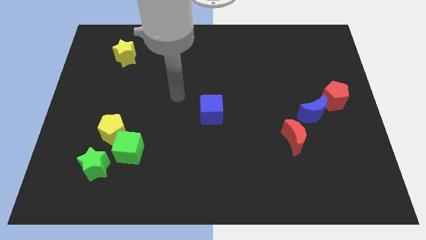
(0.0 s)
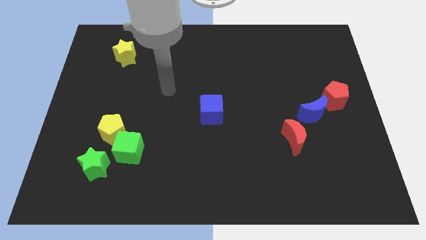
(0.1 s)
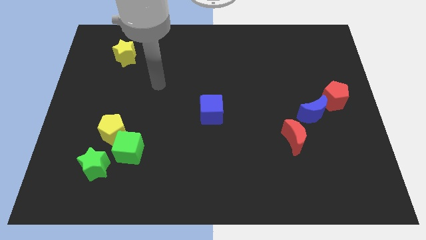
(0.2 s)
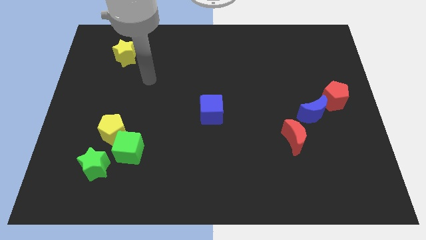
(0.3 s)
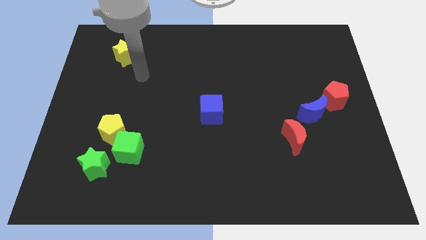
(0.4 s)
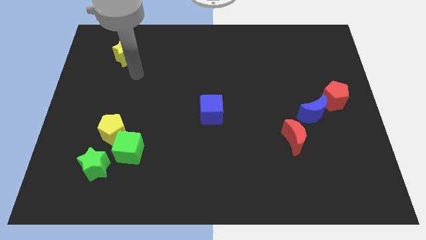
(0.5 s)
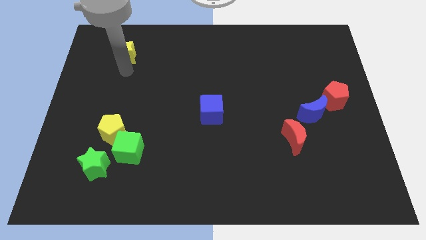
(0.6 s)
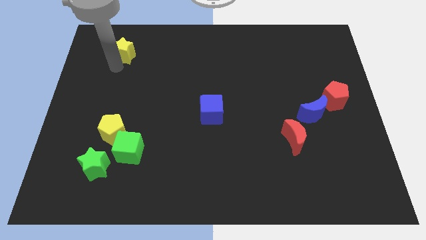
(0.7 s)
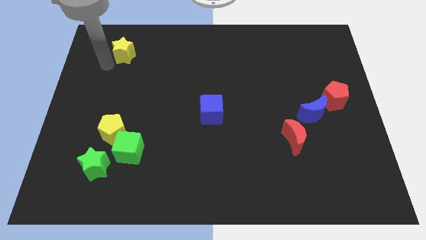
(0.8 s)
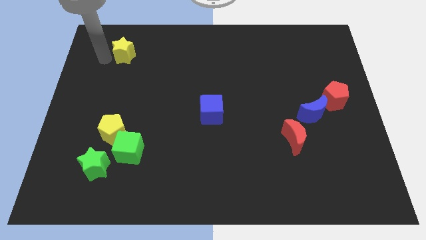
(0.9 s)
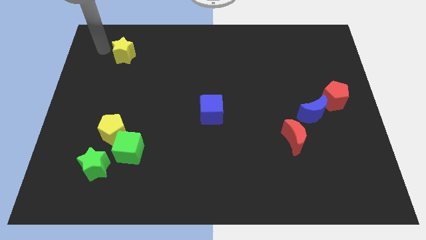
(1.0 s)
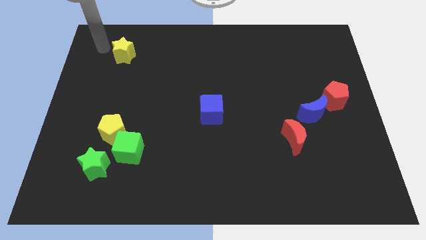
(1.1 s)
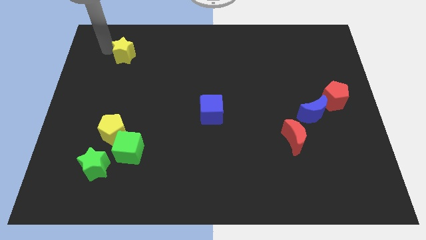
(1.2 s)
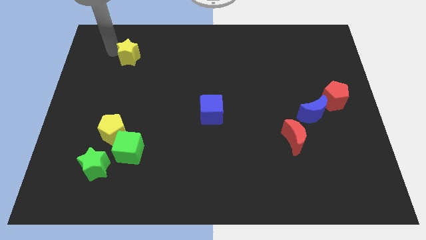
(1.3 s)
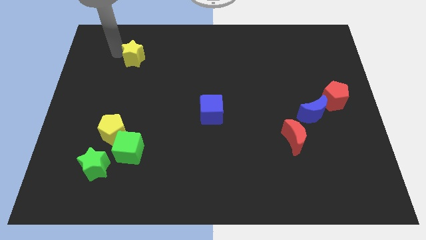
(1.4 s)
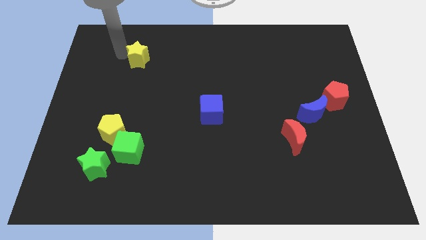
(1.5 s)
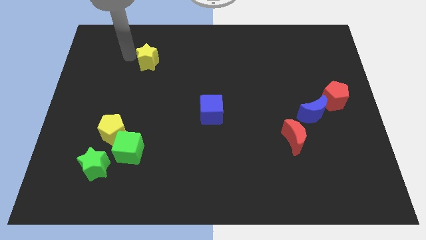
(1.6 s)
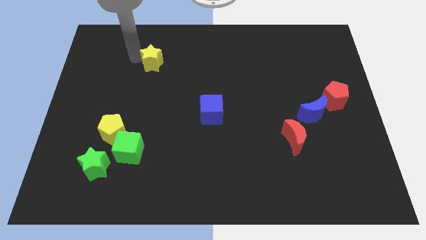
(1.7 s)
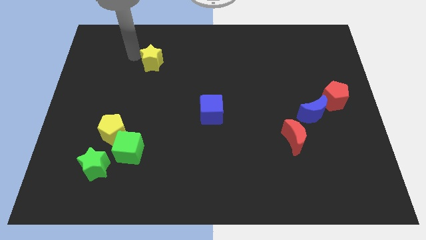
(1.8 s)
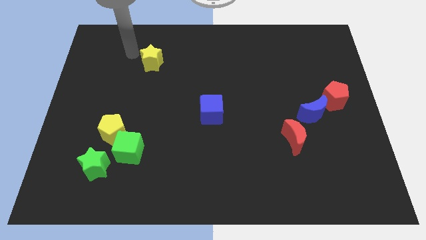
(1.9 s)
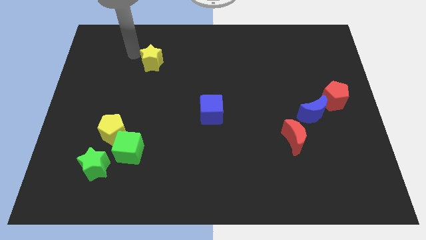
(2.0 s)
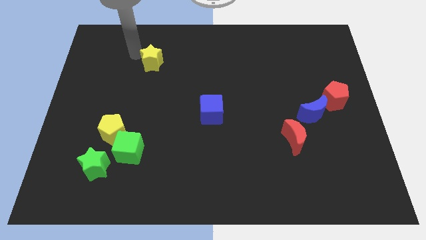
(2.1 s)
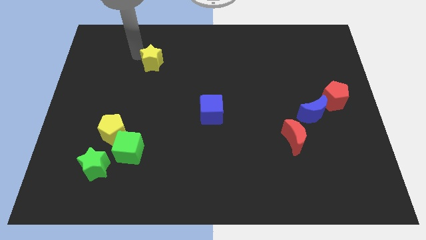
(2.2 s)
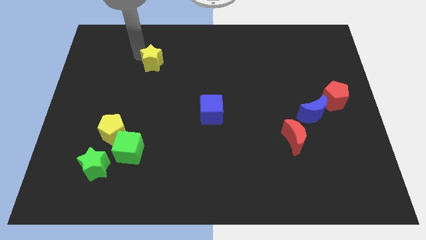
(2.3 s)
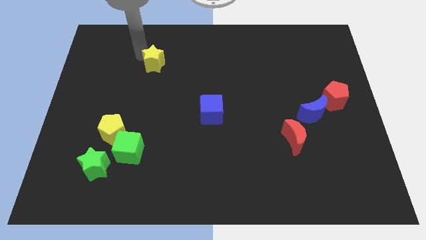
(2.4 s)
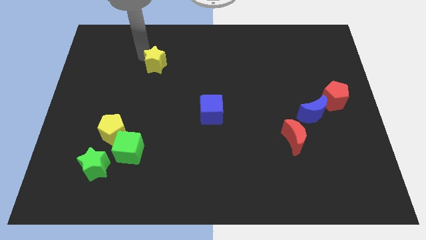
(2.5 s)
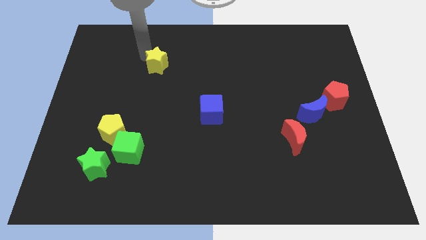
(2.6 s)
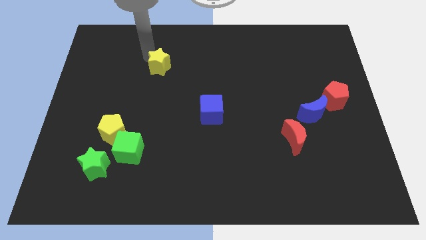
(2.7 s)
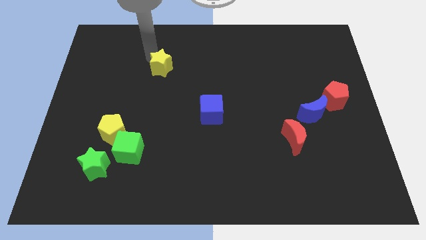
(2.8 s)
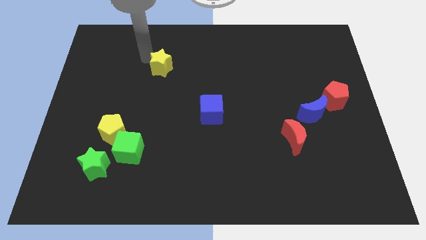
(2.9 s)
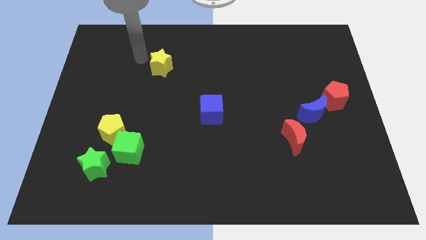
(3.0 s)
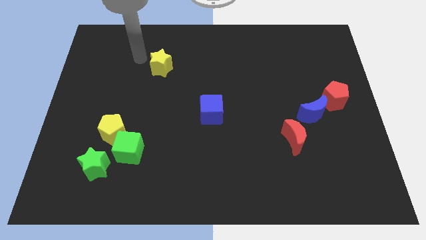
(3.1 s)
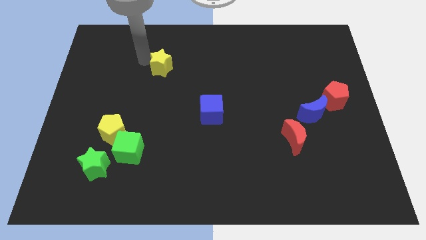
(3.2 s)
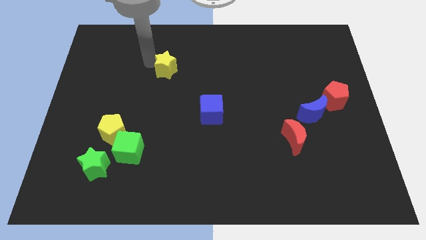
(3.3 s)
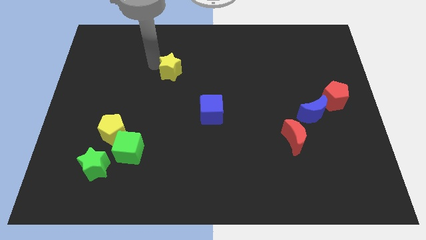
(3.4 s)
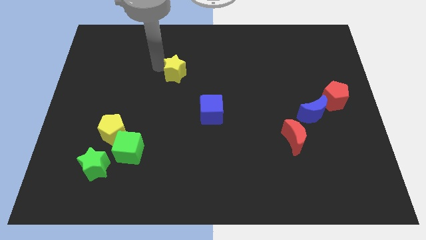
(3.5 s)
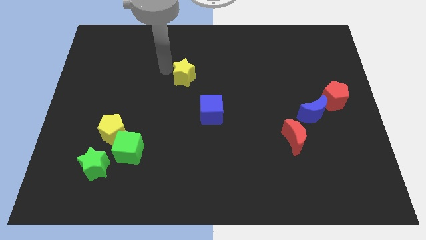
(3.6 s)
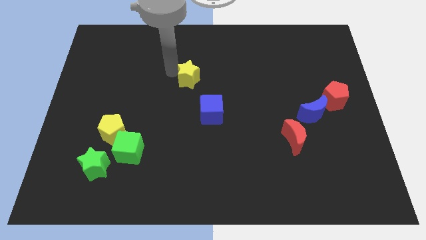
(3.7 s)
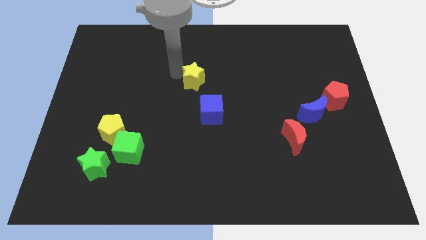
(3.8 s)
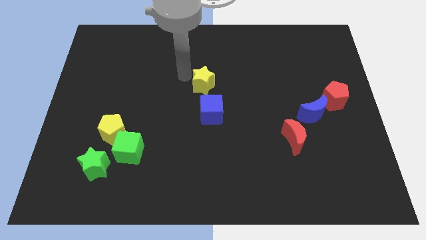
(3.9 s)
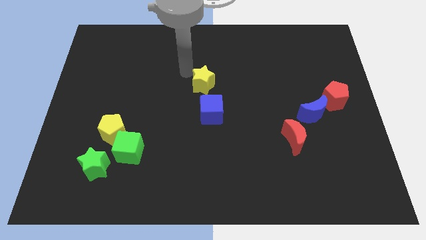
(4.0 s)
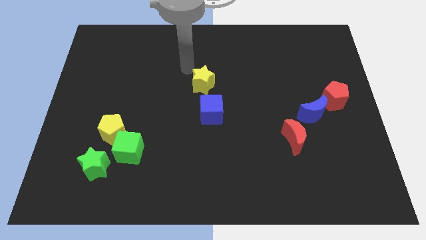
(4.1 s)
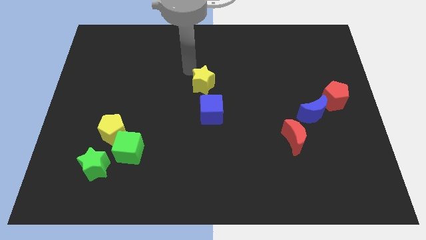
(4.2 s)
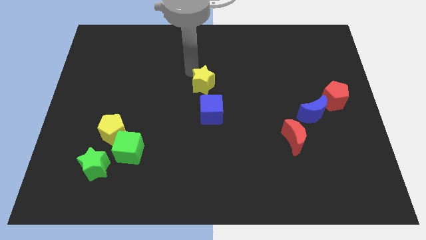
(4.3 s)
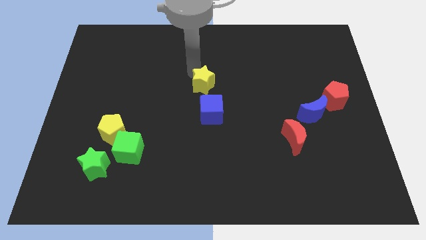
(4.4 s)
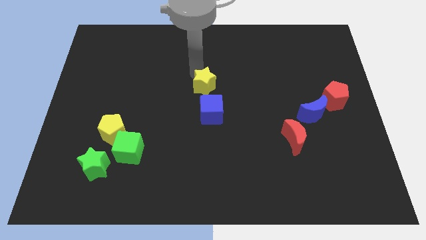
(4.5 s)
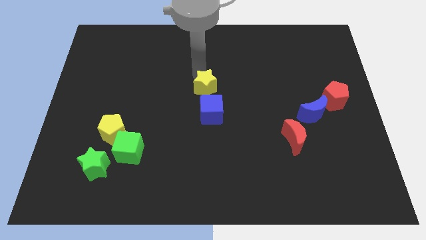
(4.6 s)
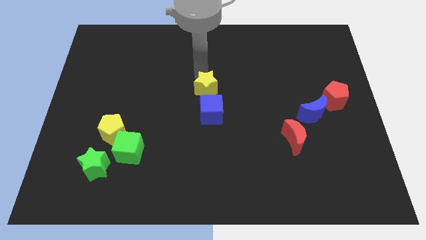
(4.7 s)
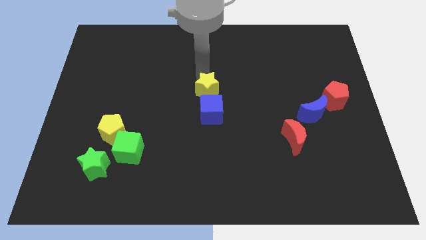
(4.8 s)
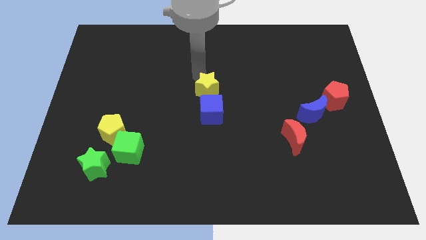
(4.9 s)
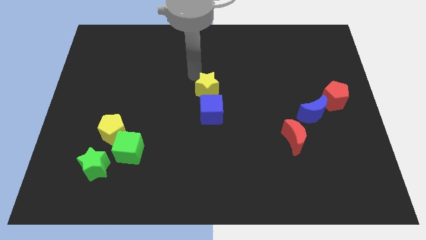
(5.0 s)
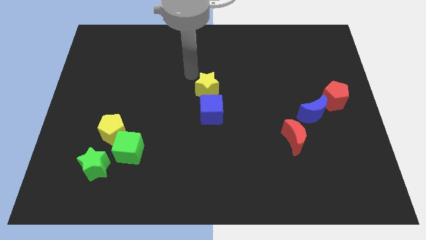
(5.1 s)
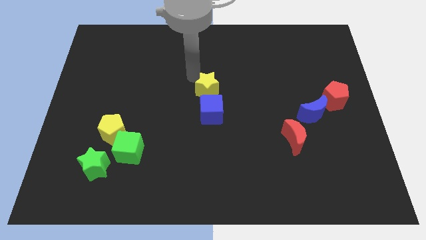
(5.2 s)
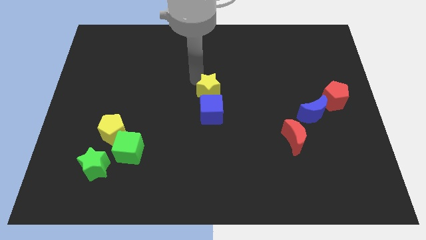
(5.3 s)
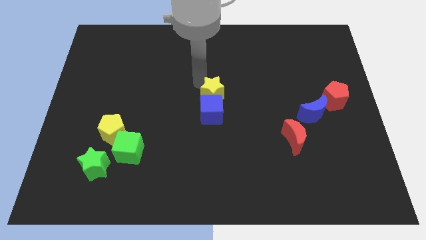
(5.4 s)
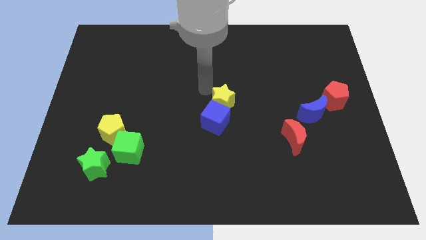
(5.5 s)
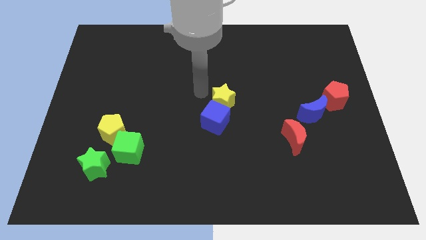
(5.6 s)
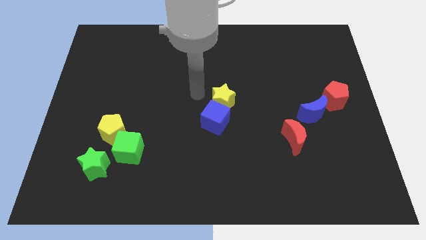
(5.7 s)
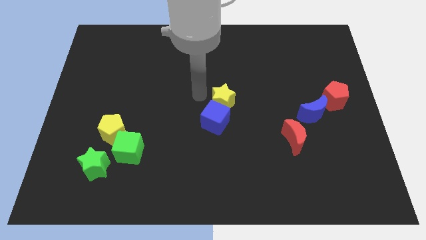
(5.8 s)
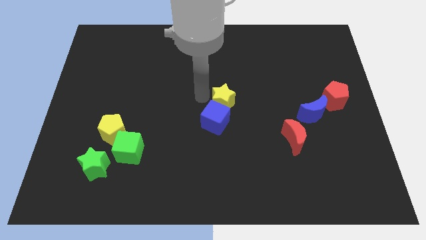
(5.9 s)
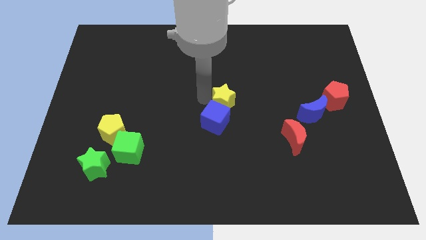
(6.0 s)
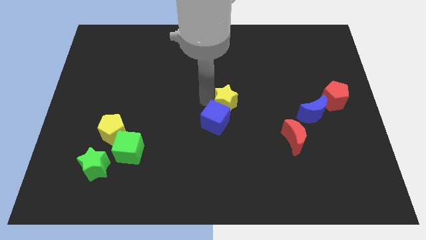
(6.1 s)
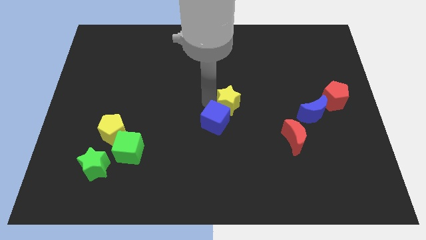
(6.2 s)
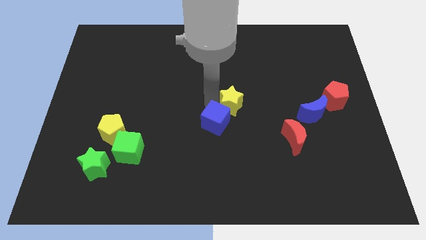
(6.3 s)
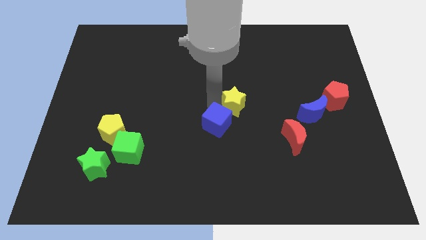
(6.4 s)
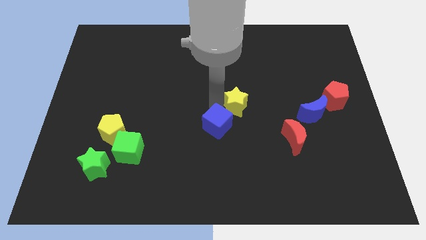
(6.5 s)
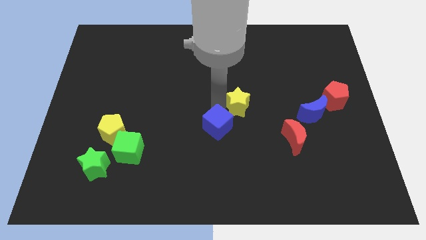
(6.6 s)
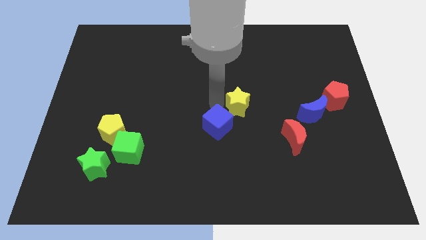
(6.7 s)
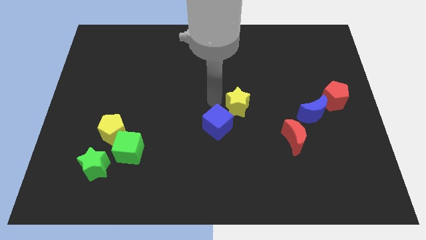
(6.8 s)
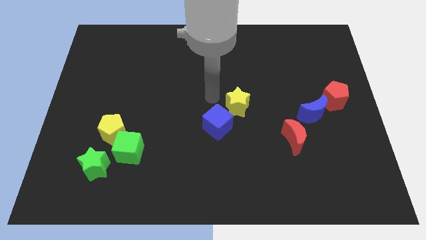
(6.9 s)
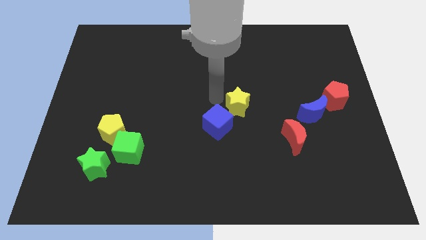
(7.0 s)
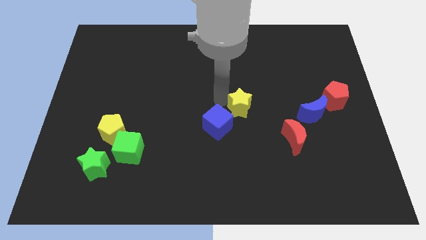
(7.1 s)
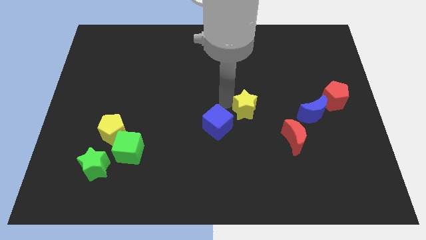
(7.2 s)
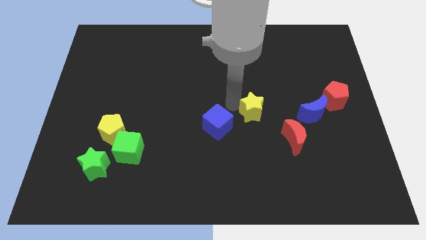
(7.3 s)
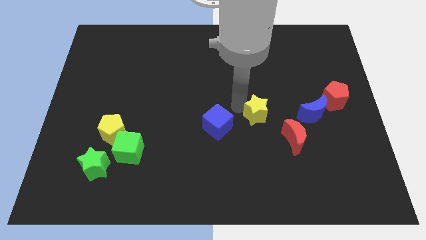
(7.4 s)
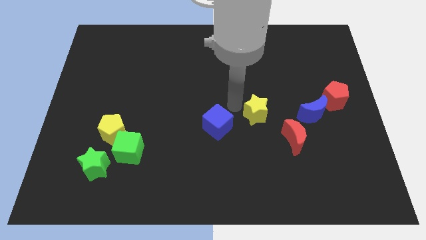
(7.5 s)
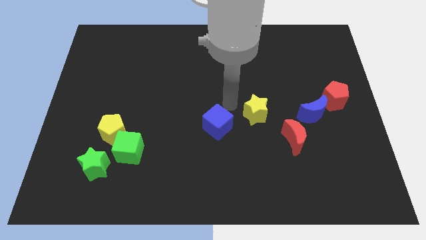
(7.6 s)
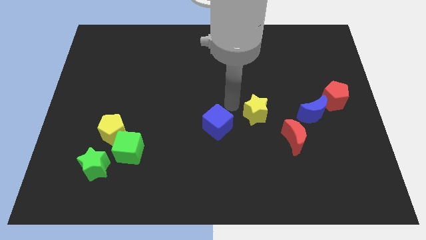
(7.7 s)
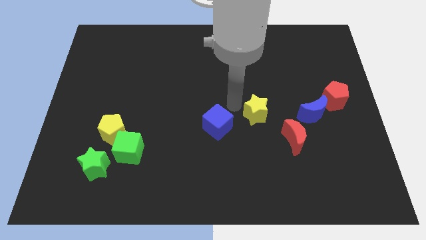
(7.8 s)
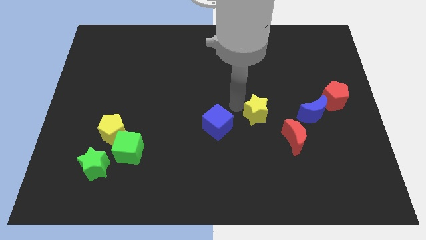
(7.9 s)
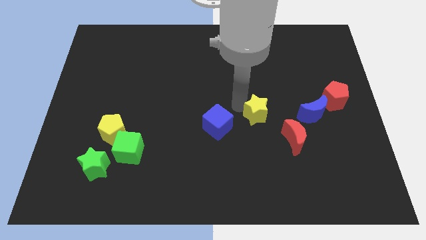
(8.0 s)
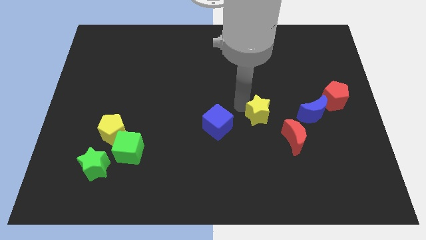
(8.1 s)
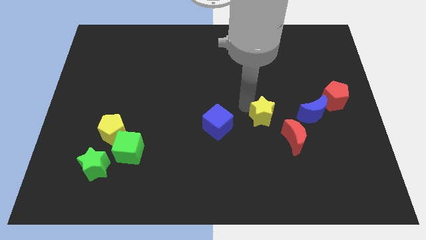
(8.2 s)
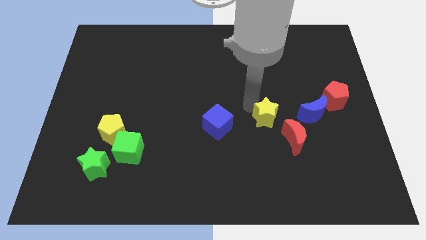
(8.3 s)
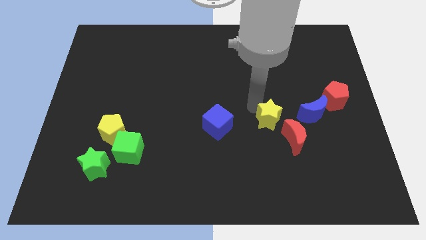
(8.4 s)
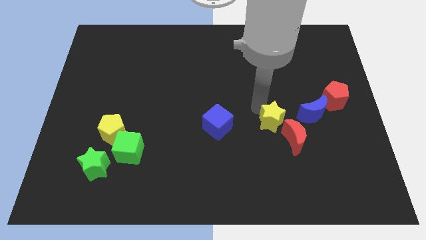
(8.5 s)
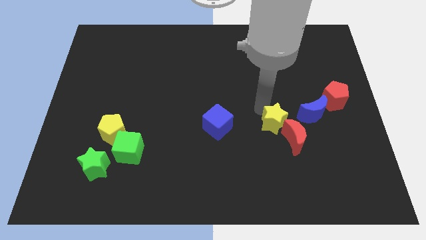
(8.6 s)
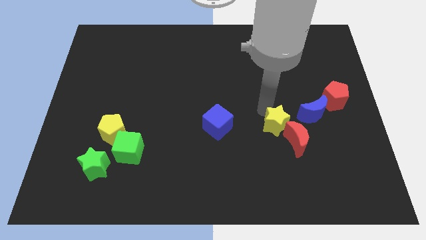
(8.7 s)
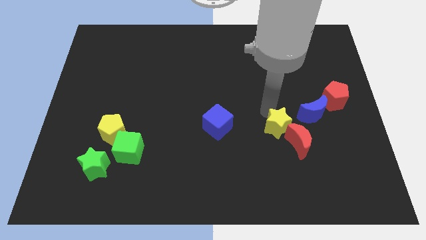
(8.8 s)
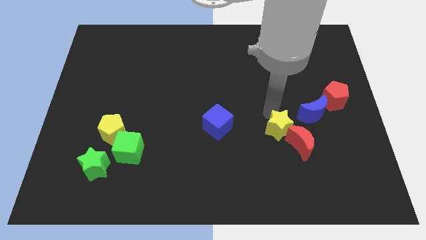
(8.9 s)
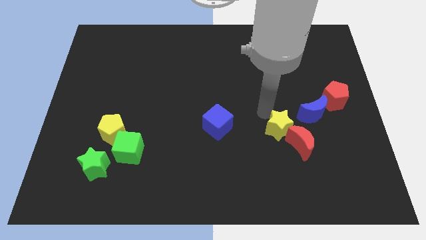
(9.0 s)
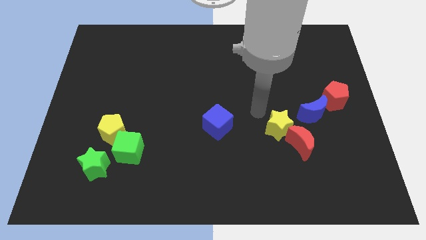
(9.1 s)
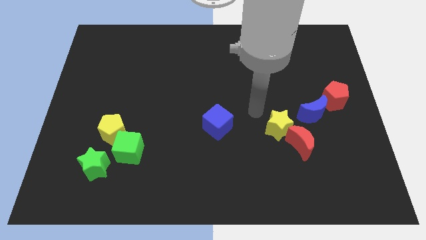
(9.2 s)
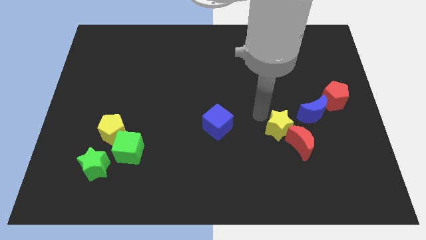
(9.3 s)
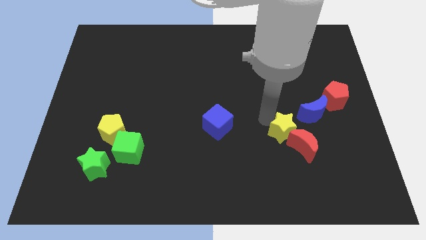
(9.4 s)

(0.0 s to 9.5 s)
move the yellow star to the red moon
